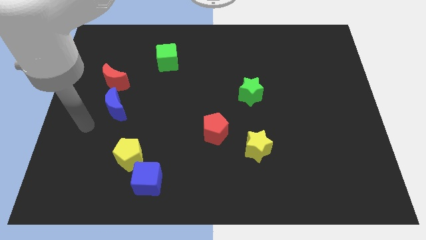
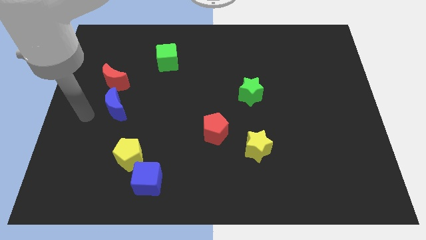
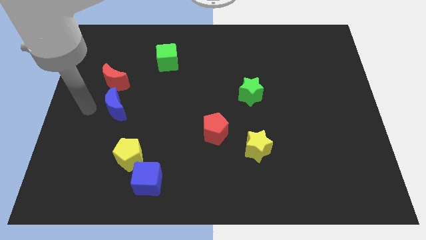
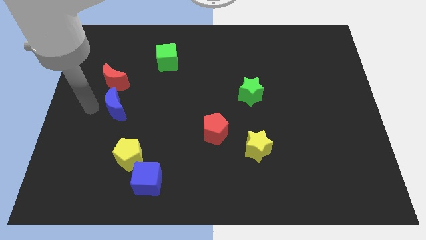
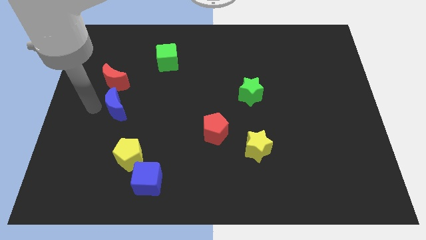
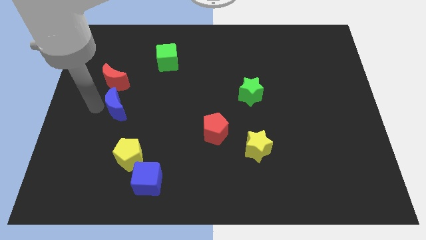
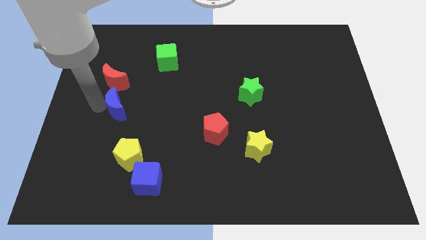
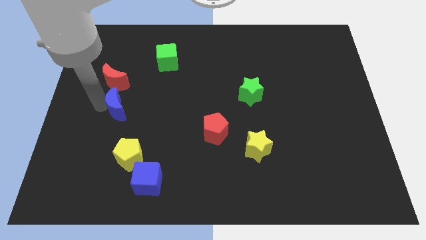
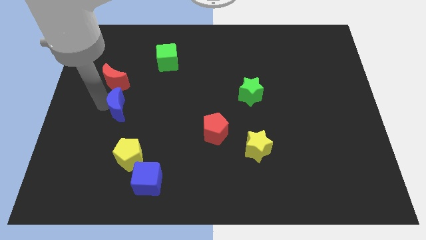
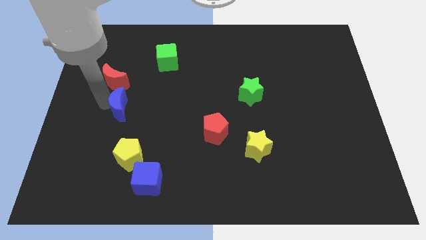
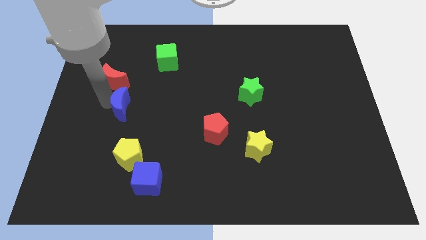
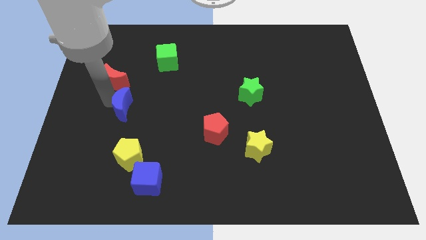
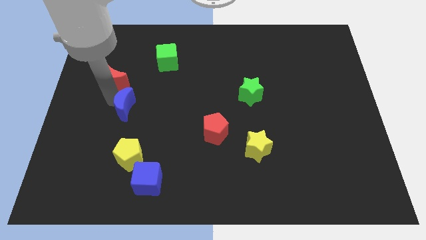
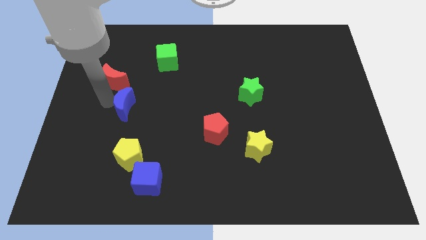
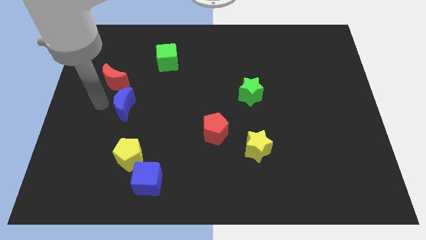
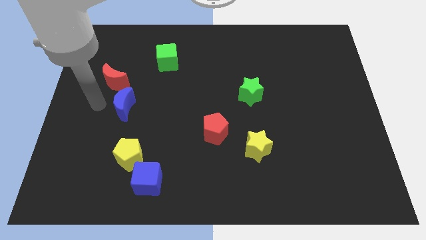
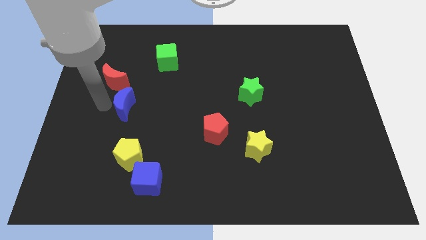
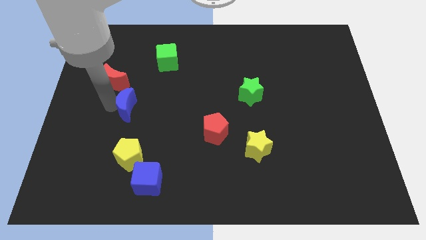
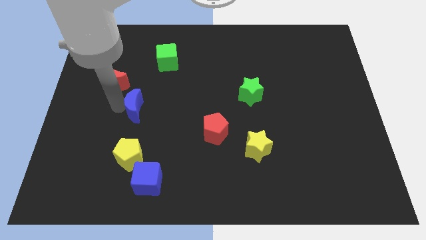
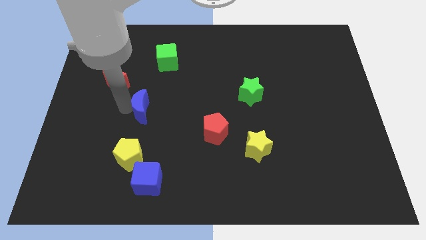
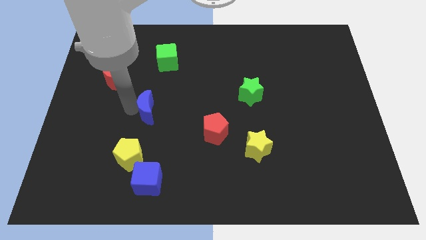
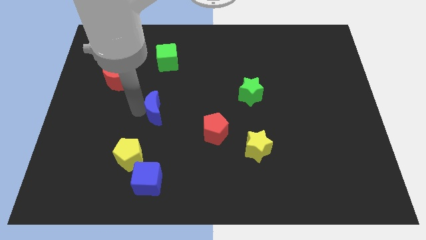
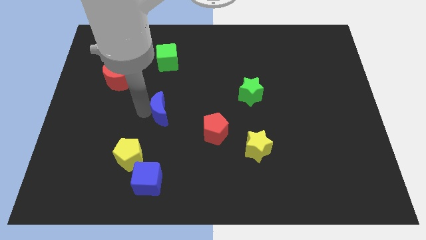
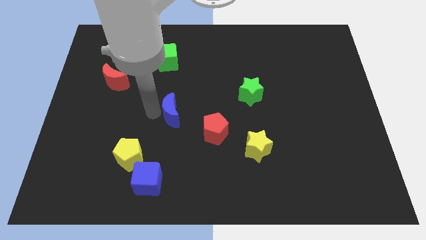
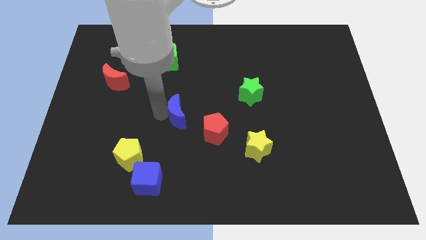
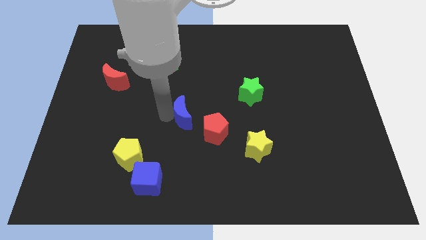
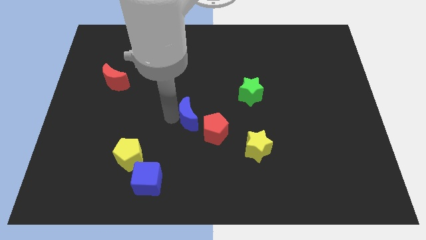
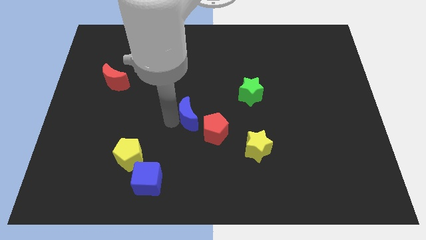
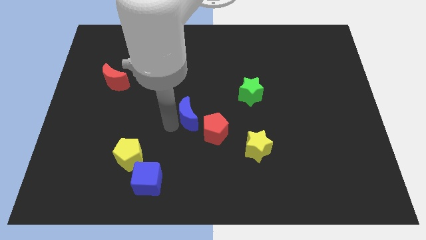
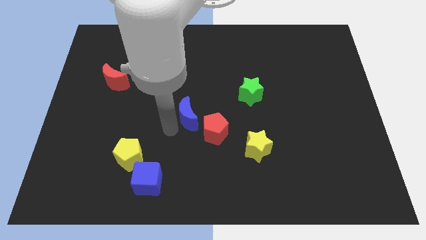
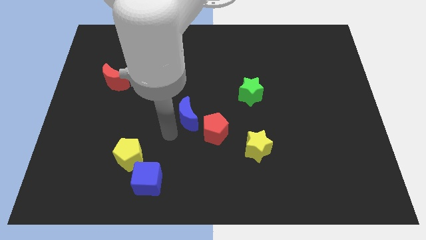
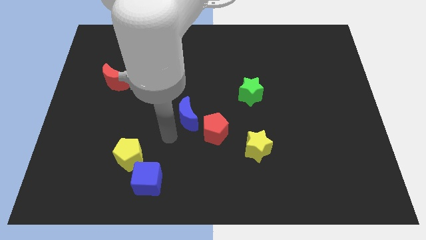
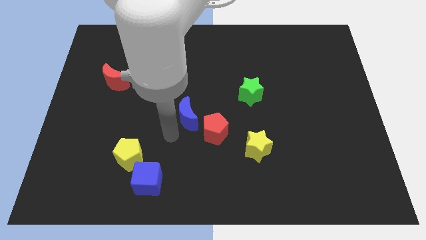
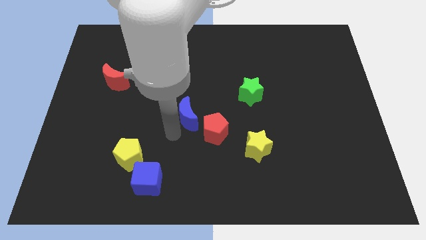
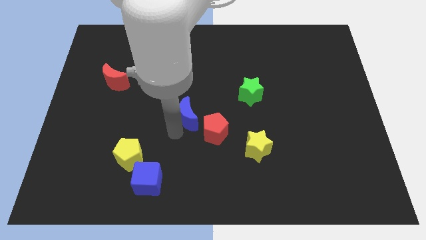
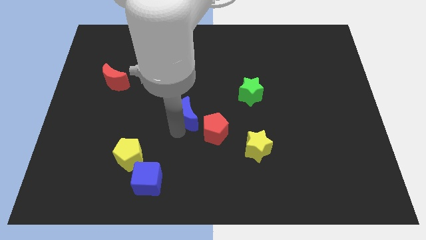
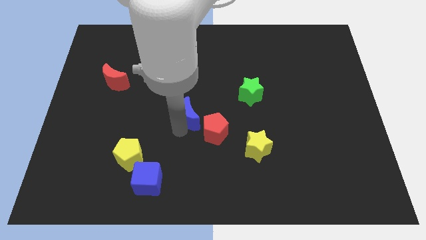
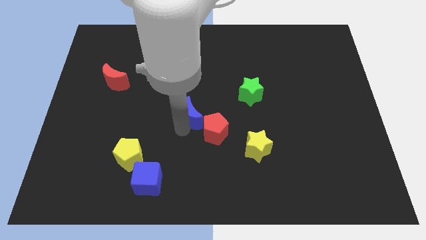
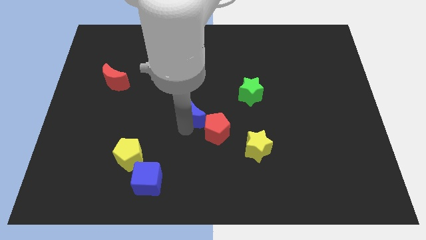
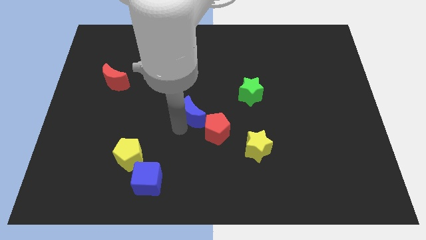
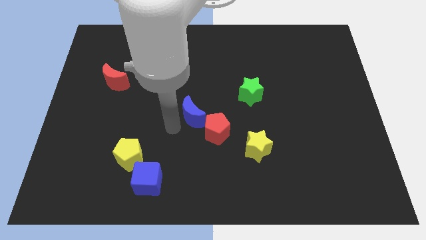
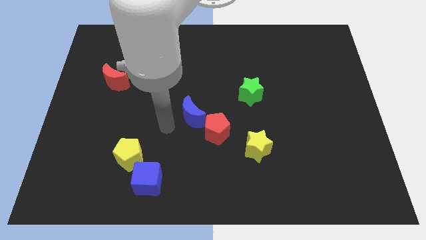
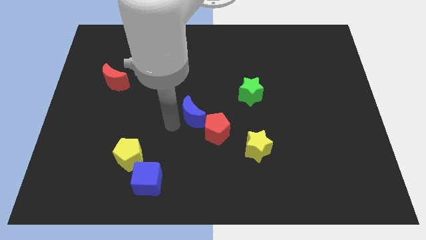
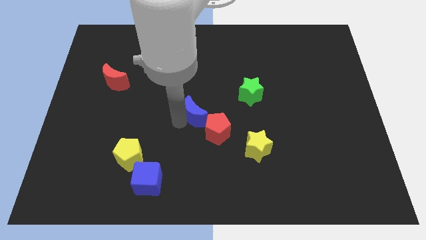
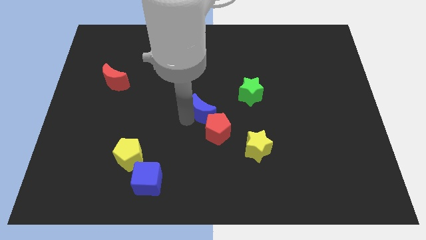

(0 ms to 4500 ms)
move the blue moon right

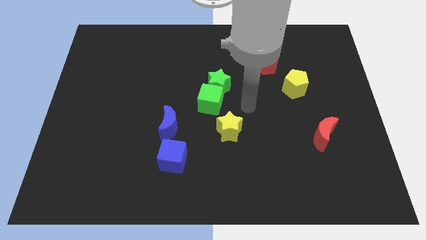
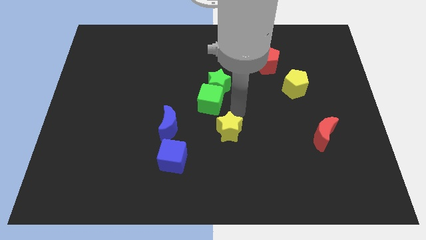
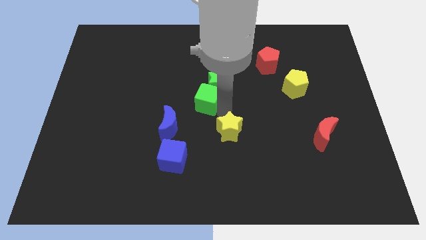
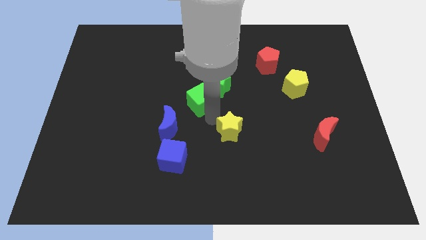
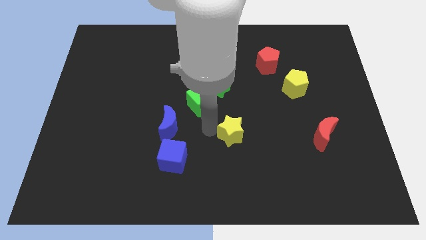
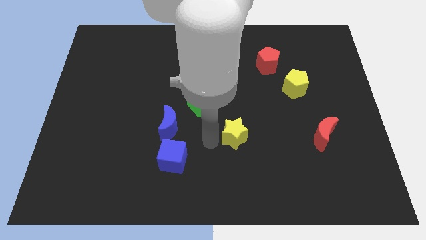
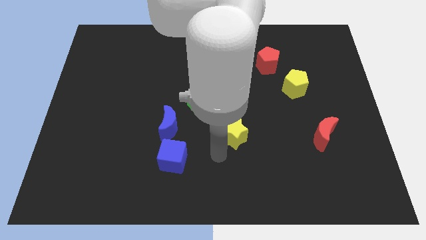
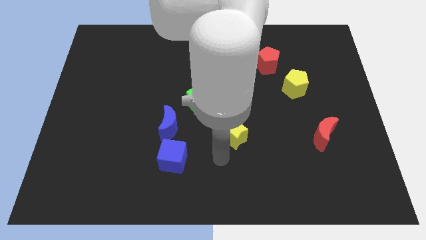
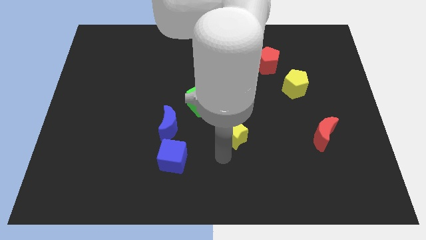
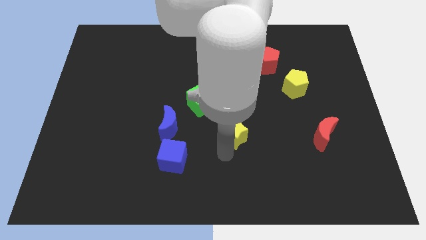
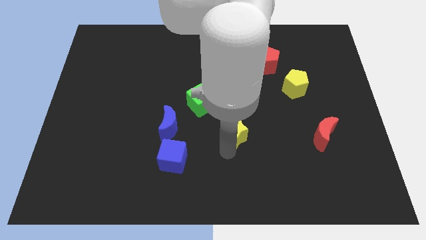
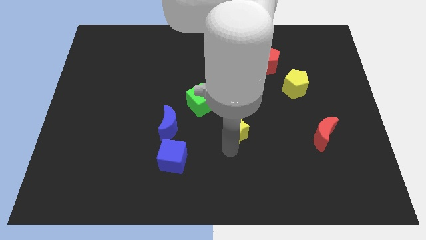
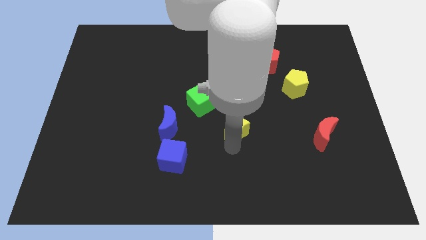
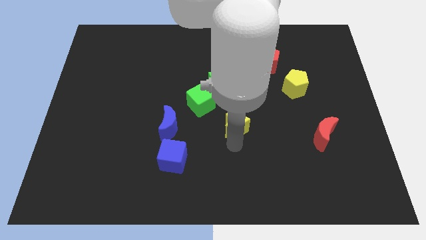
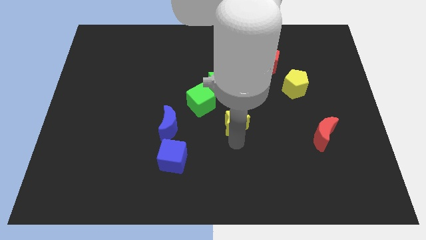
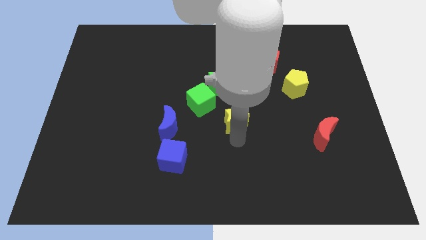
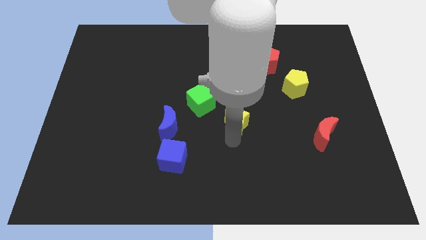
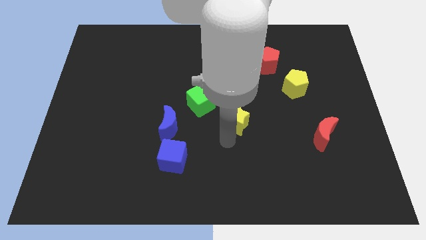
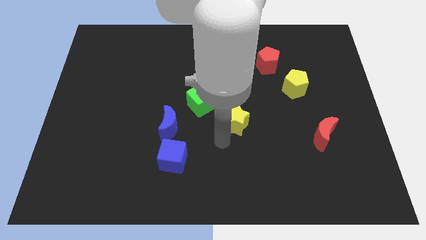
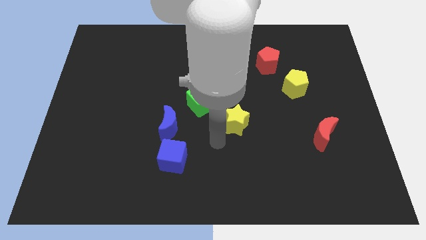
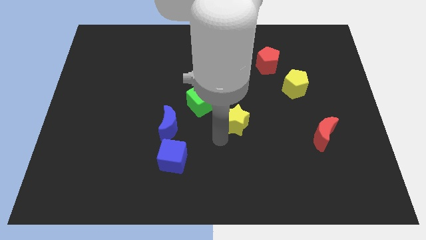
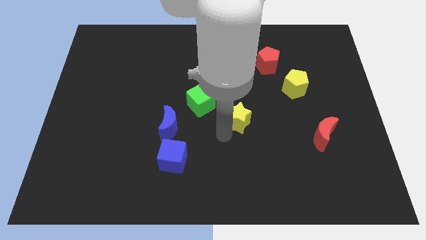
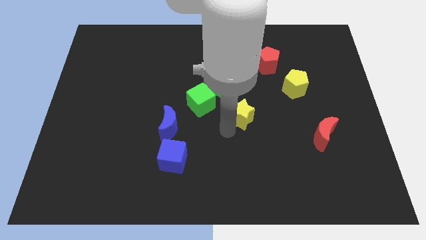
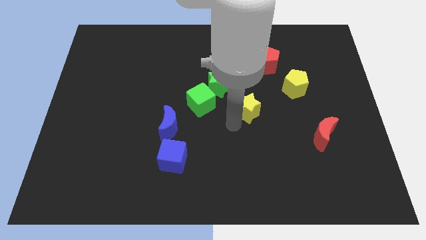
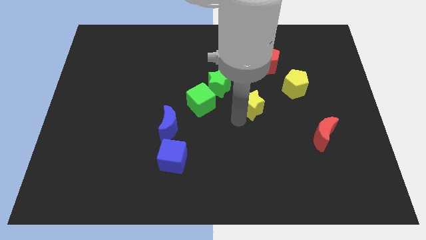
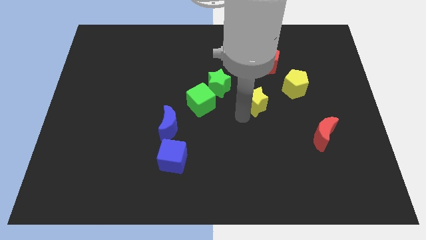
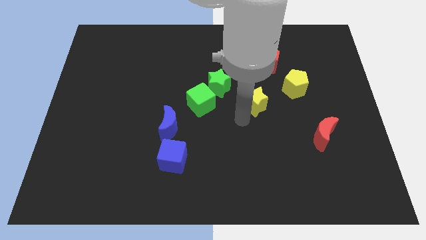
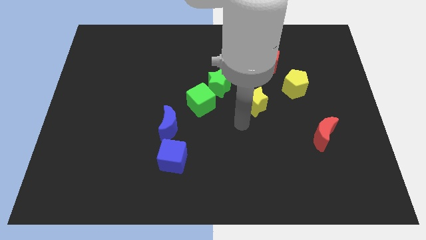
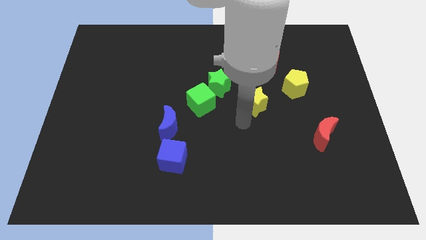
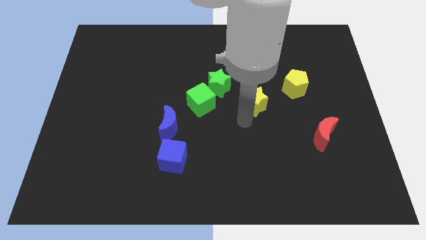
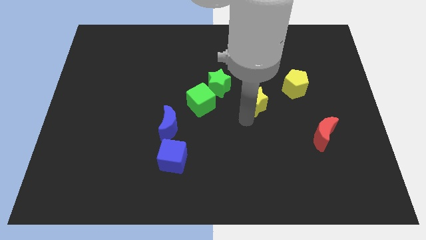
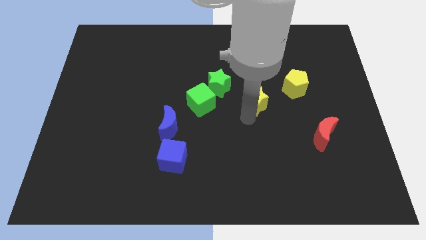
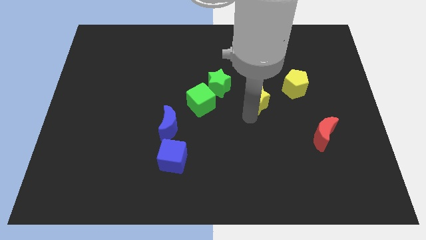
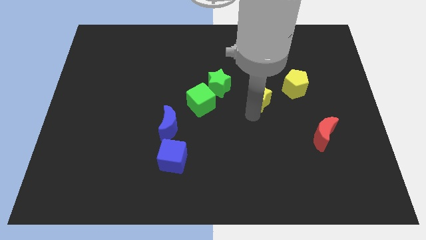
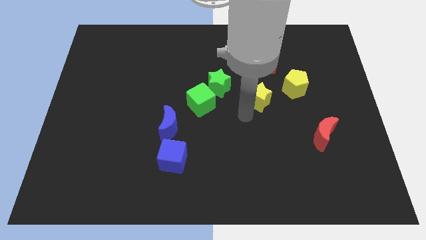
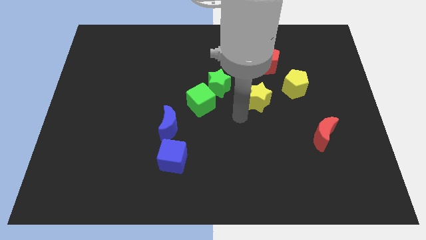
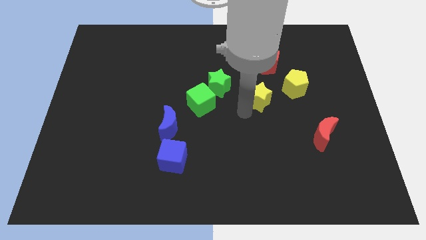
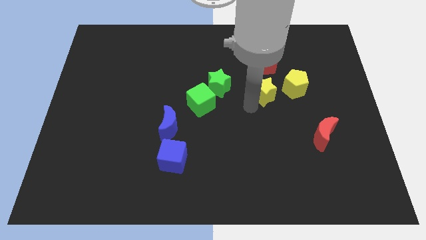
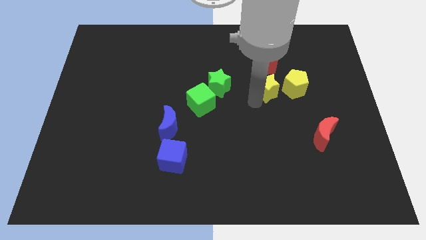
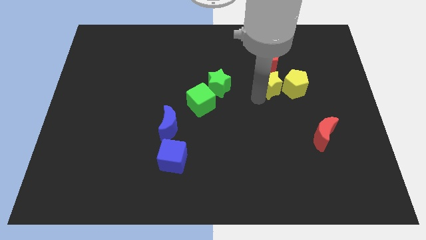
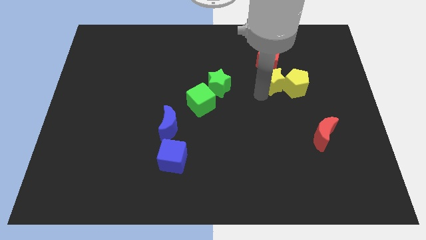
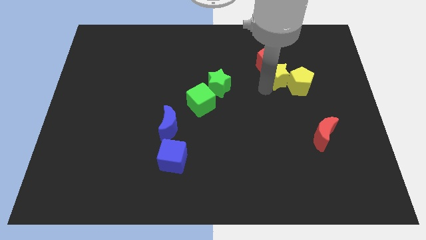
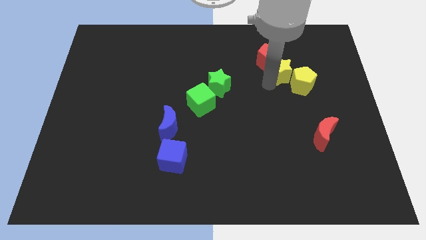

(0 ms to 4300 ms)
push the yellow star up and to the right diagonally
